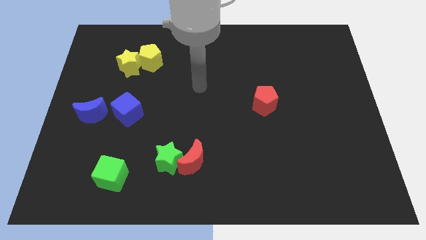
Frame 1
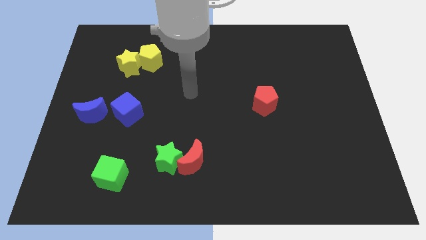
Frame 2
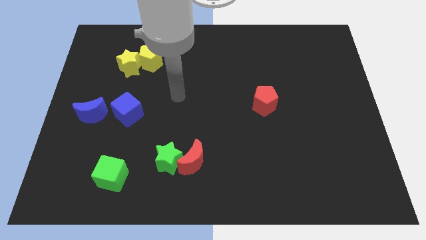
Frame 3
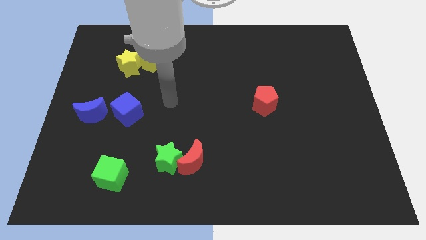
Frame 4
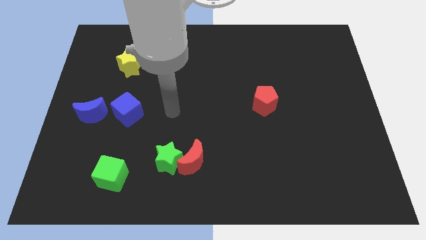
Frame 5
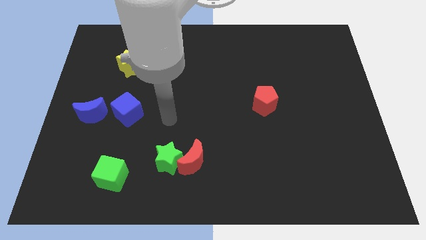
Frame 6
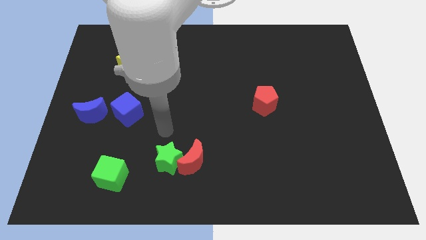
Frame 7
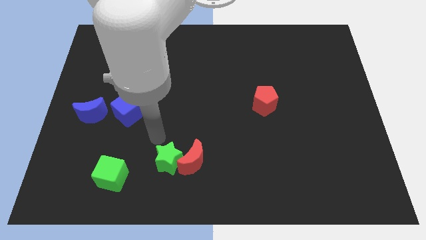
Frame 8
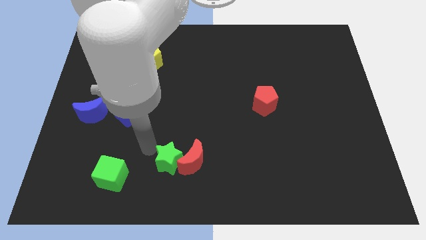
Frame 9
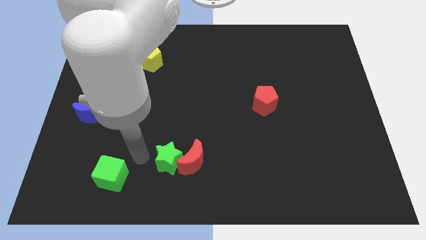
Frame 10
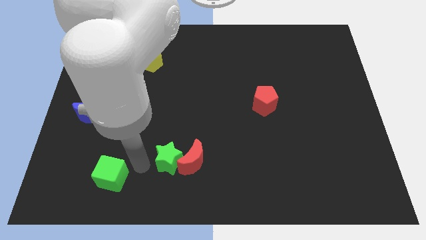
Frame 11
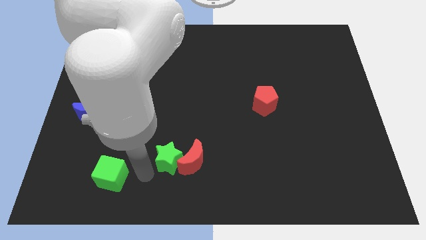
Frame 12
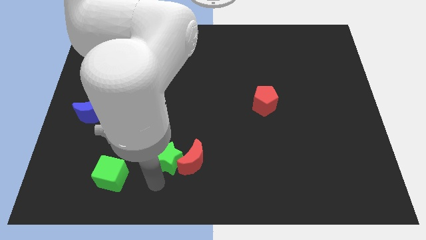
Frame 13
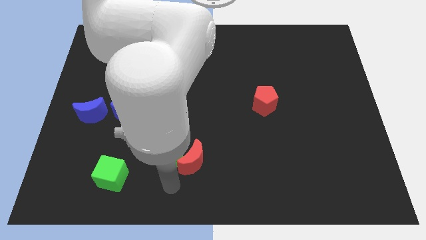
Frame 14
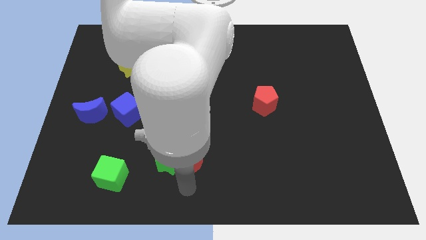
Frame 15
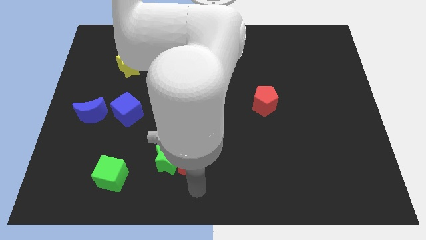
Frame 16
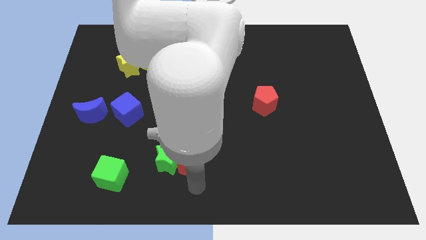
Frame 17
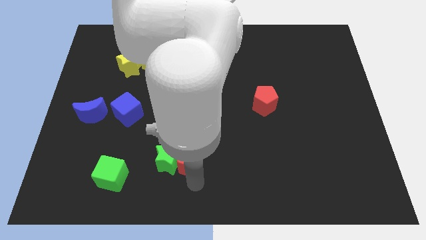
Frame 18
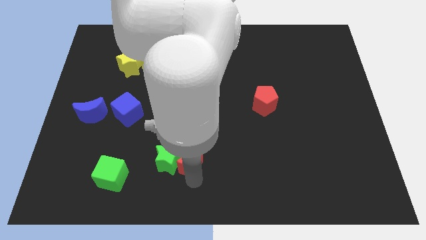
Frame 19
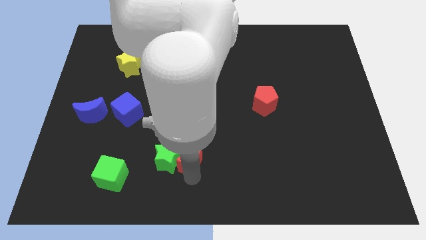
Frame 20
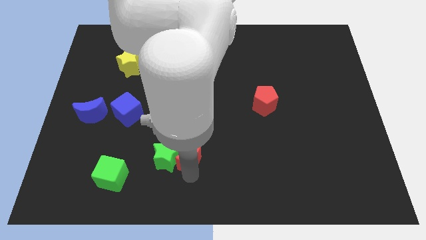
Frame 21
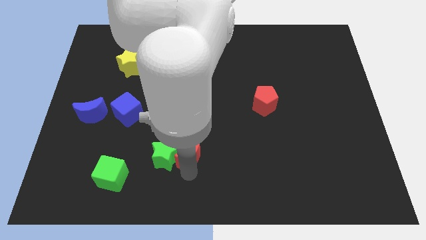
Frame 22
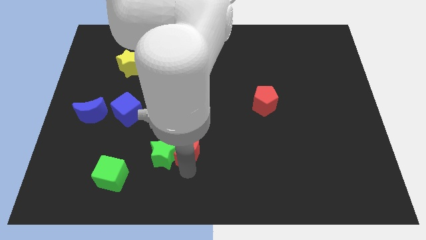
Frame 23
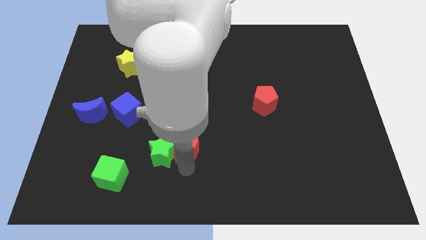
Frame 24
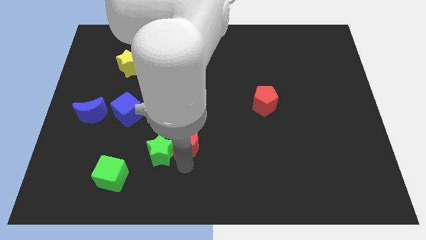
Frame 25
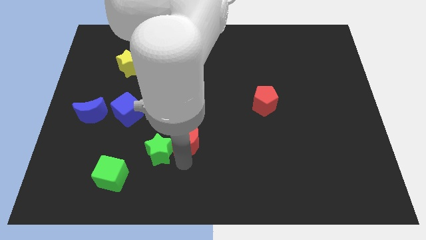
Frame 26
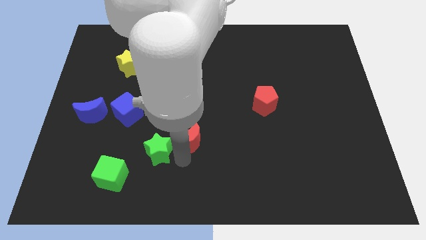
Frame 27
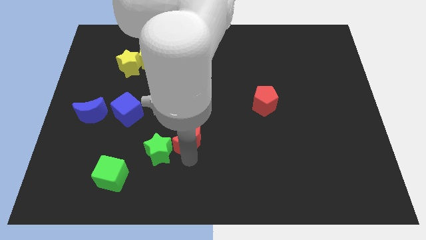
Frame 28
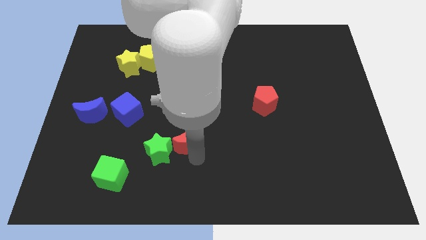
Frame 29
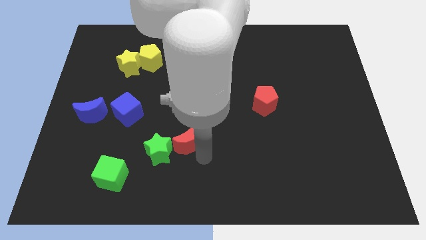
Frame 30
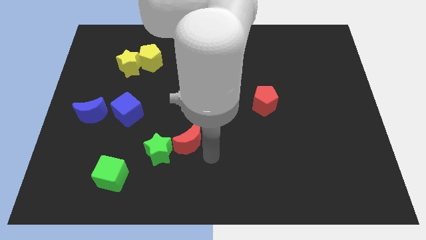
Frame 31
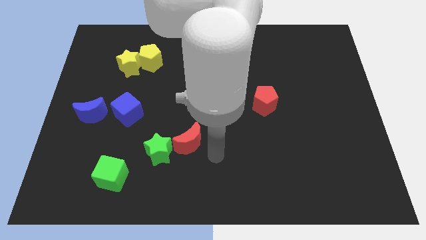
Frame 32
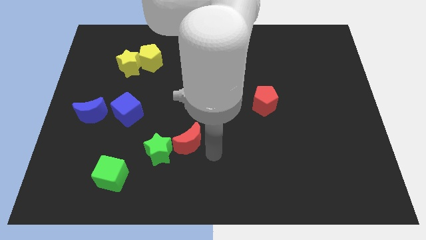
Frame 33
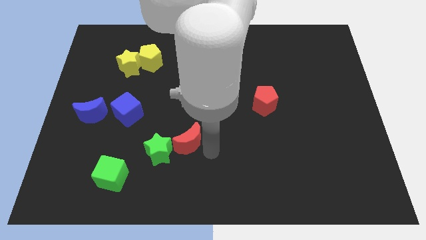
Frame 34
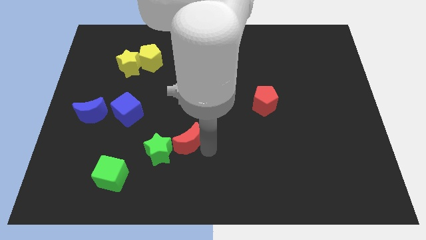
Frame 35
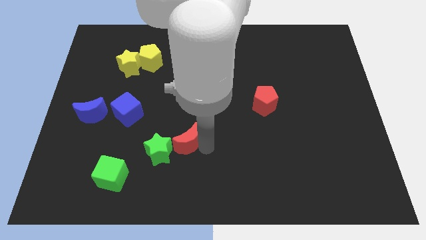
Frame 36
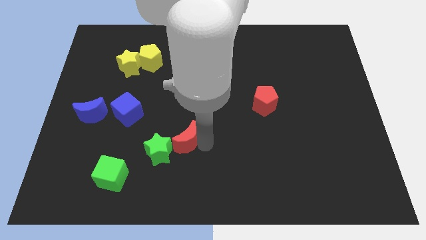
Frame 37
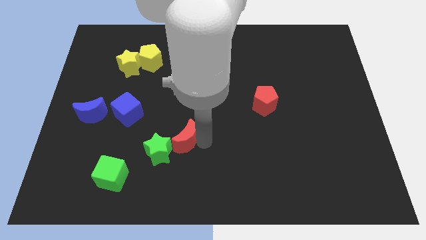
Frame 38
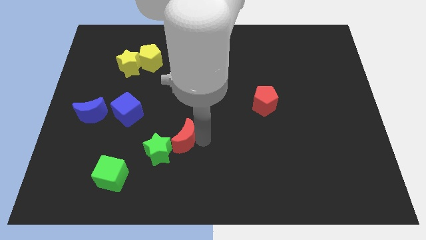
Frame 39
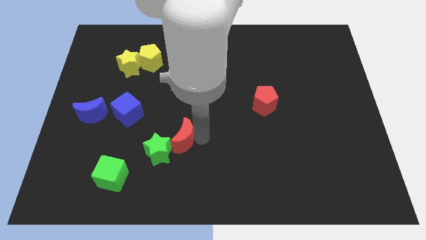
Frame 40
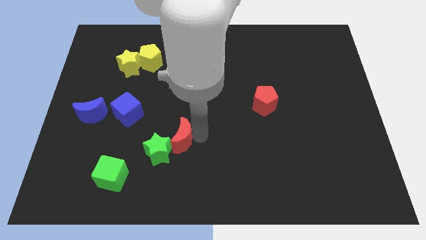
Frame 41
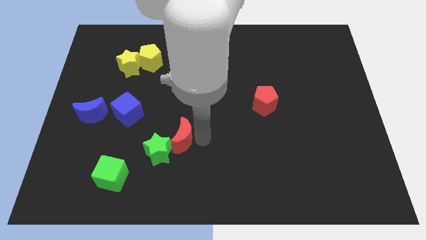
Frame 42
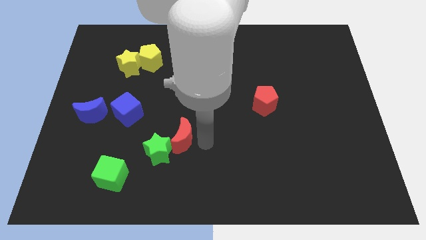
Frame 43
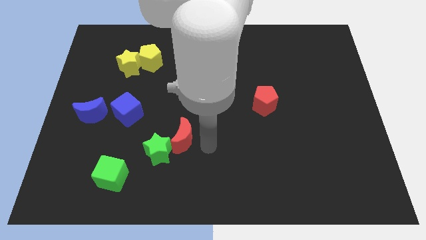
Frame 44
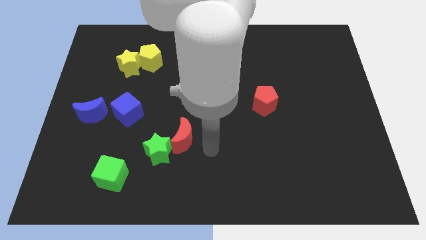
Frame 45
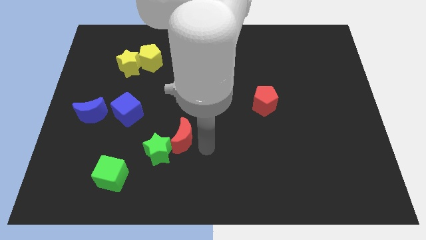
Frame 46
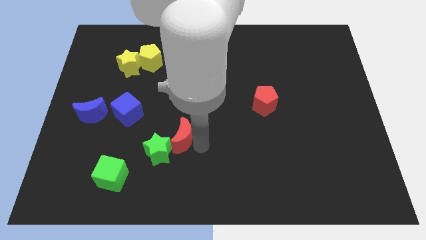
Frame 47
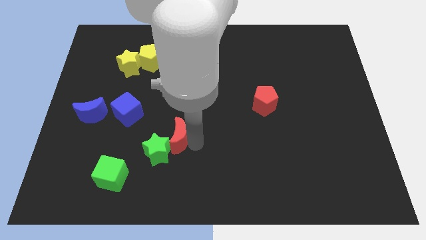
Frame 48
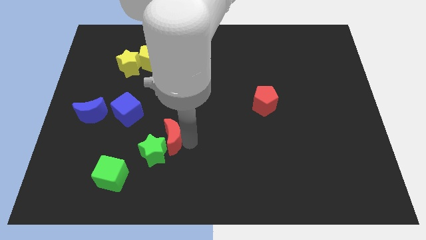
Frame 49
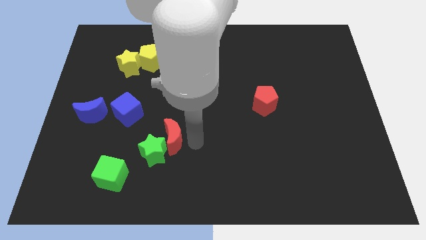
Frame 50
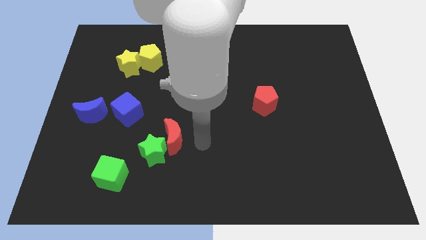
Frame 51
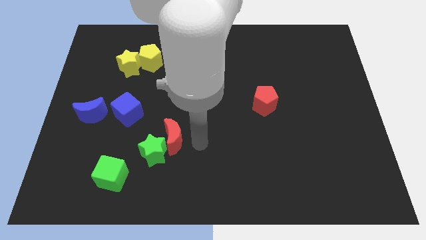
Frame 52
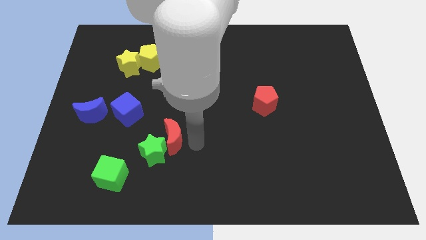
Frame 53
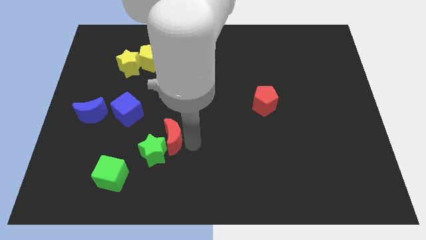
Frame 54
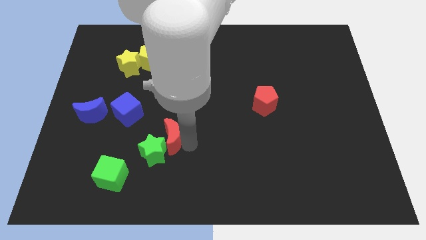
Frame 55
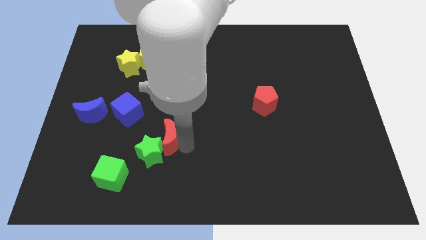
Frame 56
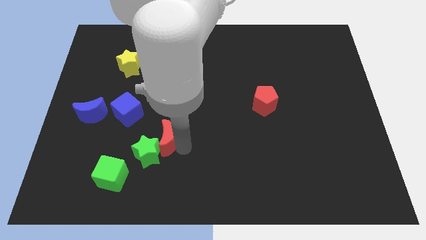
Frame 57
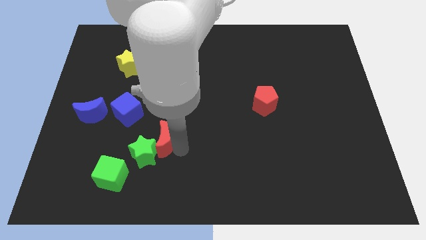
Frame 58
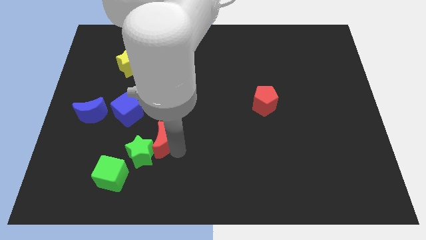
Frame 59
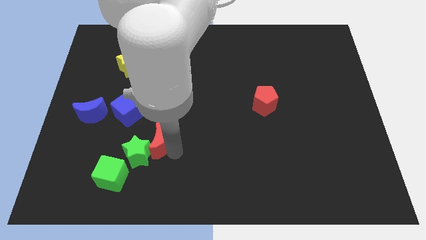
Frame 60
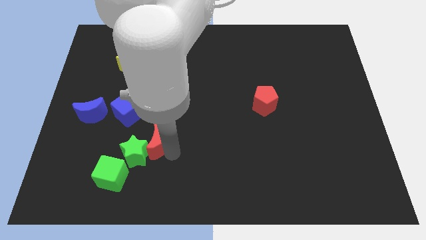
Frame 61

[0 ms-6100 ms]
slide the red moon to the left slightly

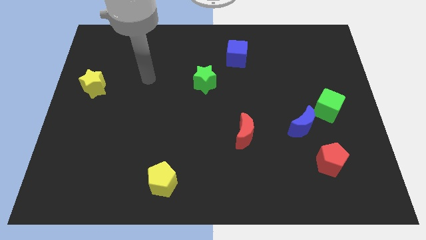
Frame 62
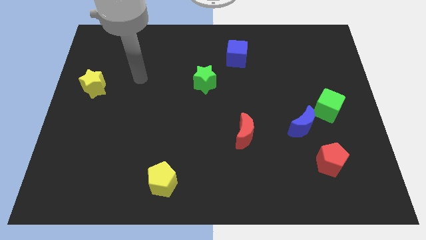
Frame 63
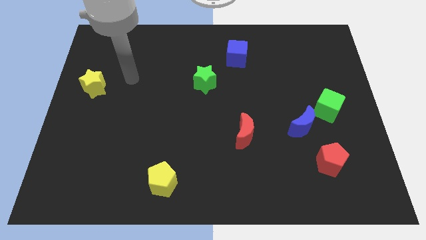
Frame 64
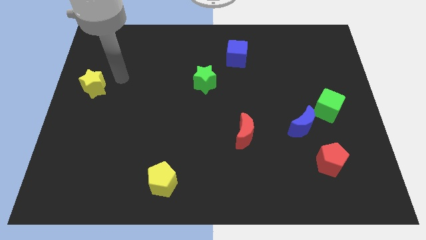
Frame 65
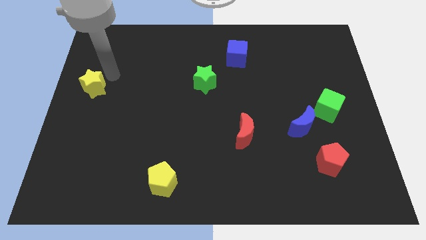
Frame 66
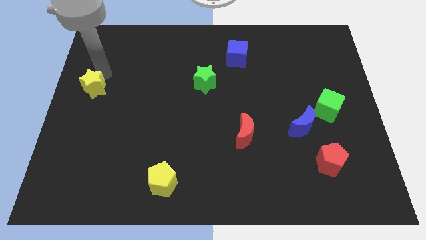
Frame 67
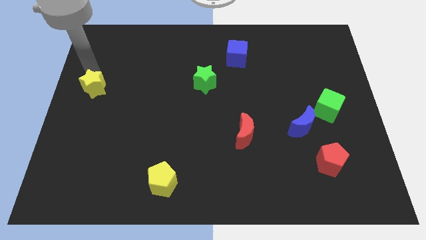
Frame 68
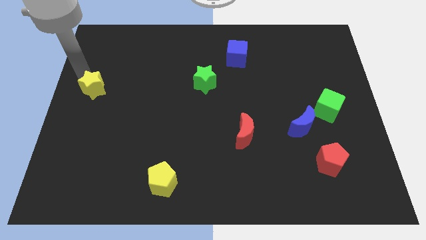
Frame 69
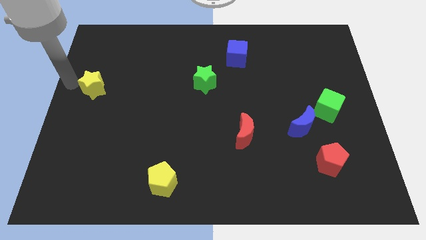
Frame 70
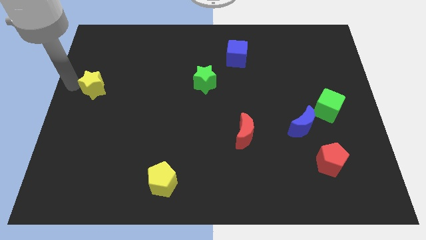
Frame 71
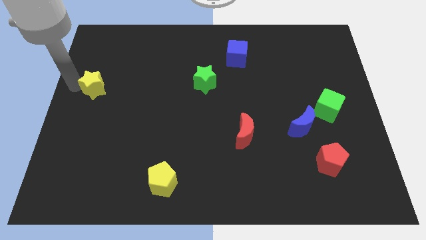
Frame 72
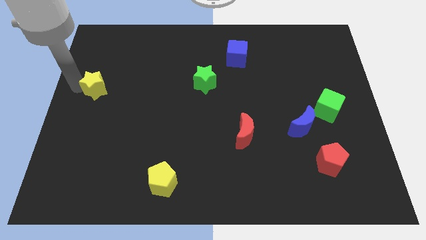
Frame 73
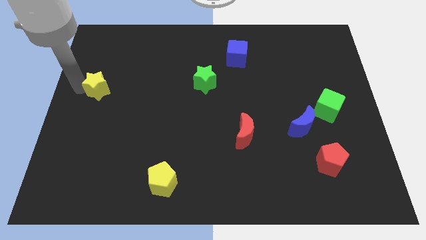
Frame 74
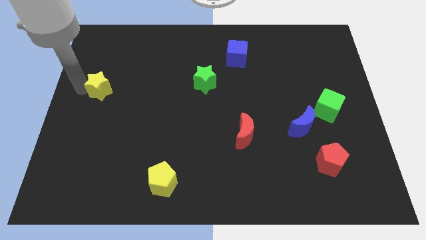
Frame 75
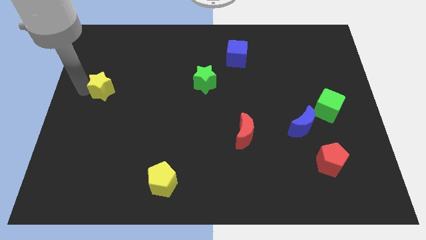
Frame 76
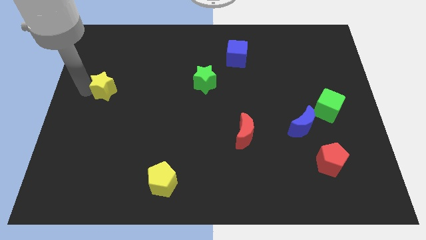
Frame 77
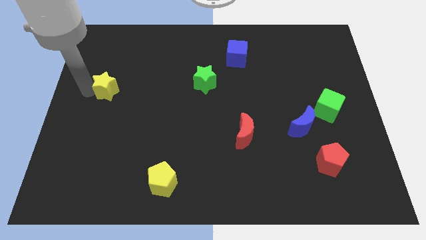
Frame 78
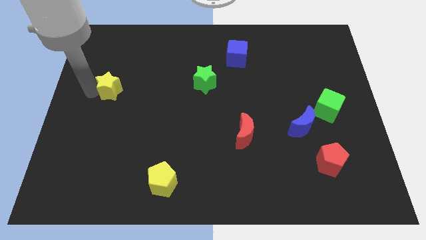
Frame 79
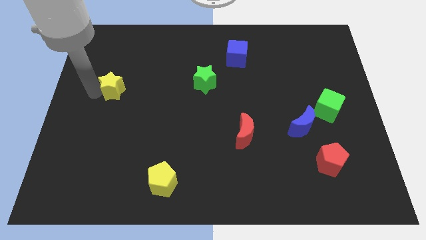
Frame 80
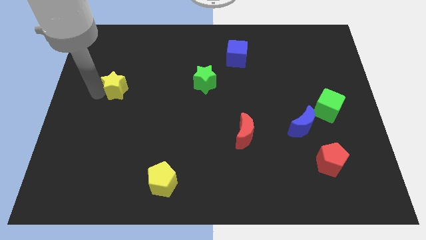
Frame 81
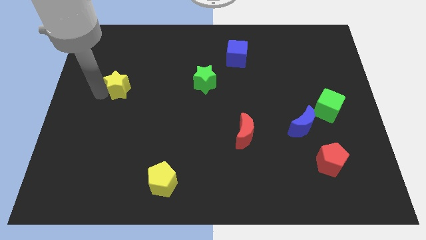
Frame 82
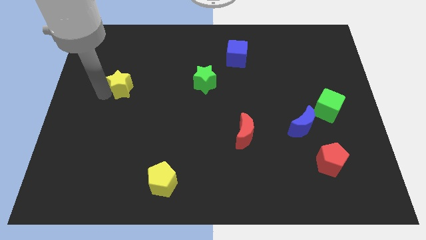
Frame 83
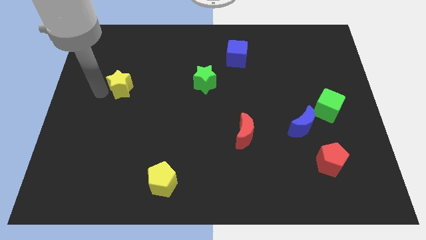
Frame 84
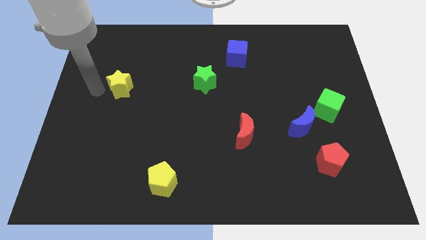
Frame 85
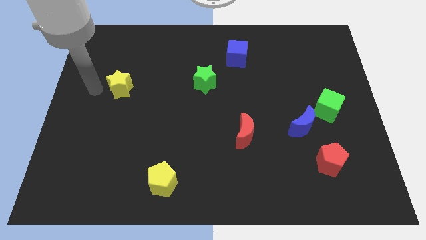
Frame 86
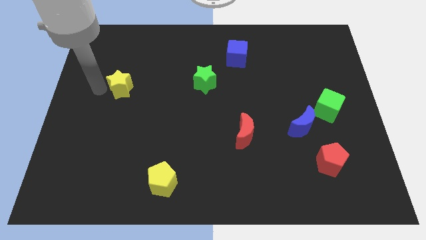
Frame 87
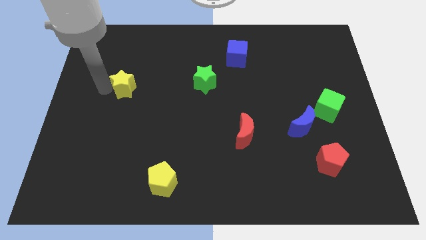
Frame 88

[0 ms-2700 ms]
slightly move the yellow star to the right
